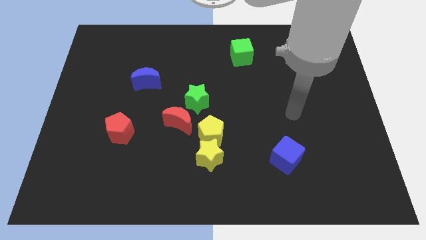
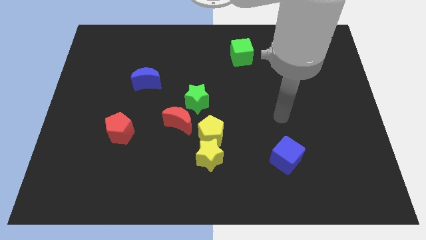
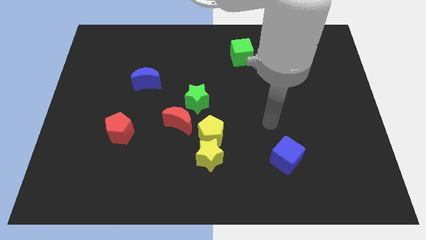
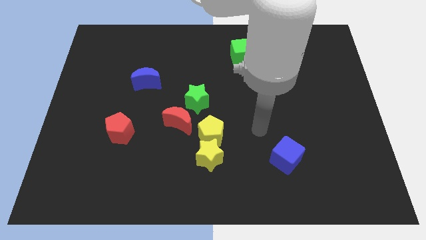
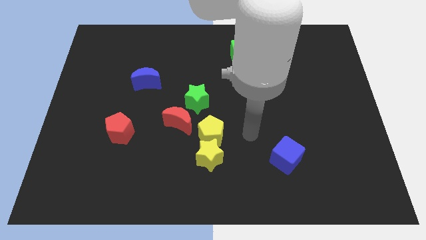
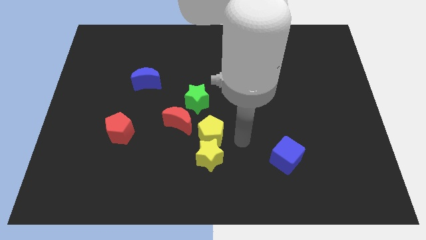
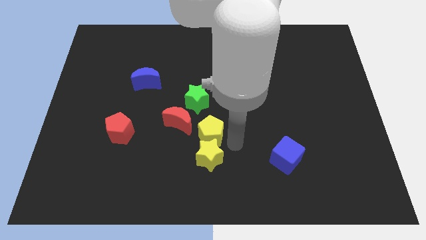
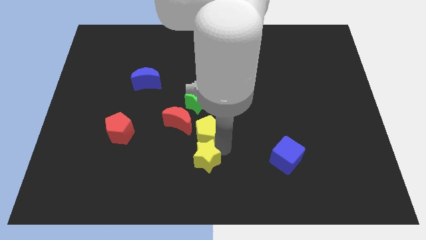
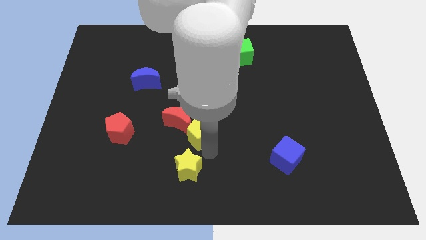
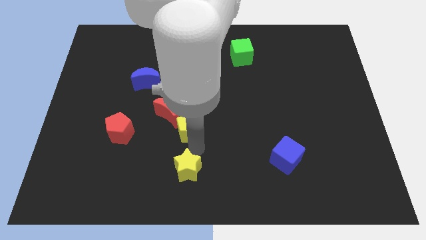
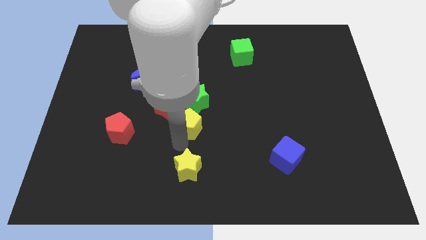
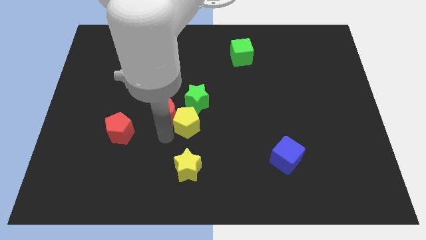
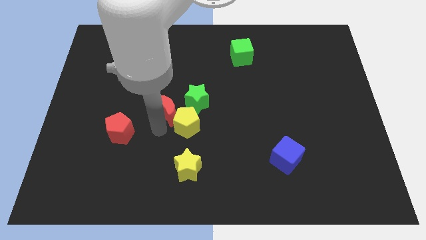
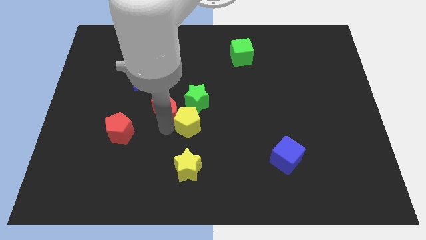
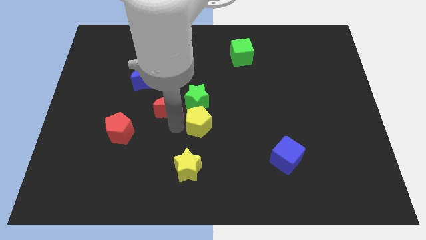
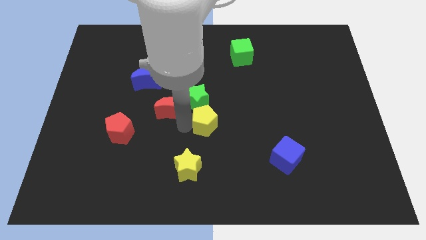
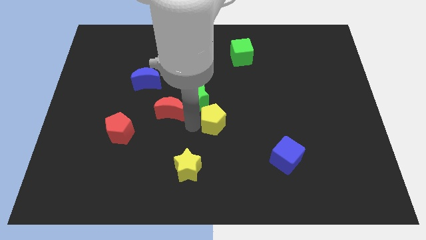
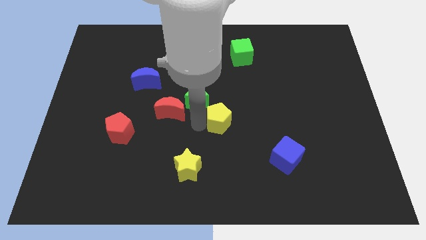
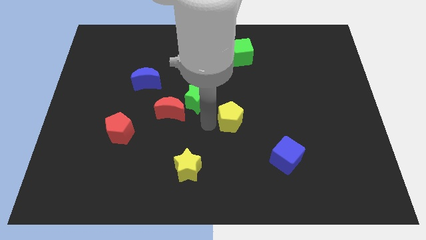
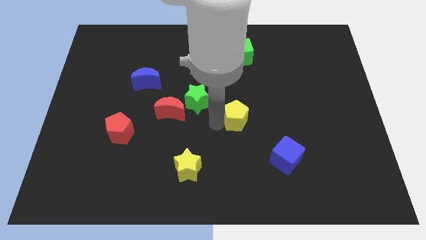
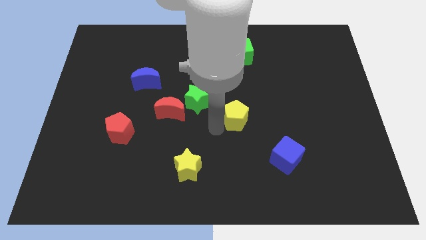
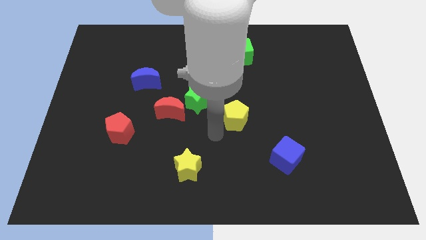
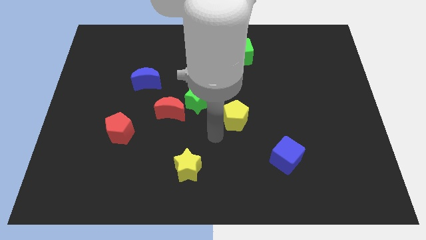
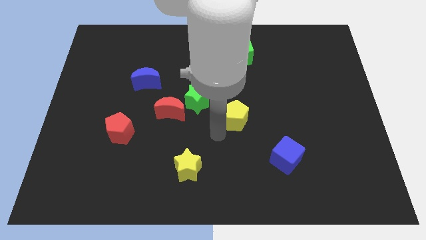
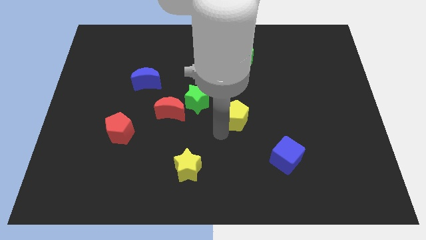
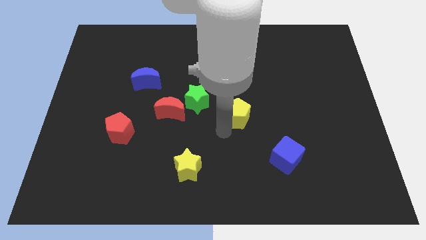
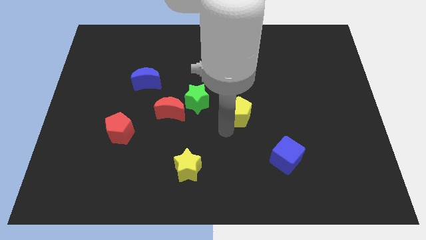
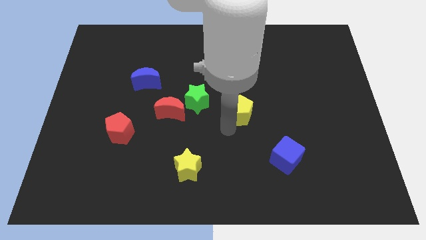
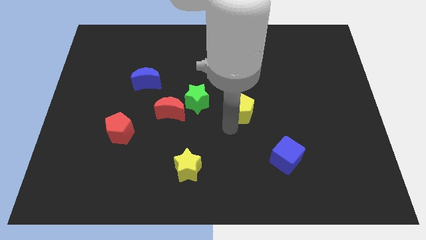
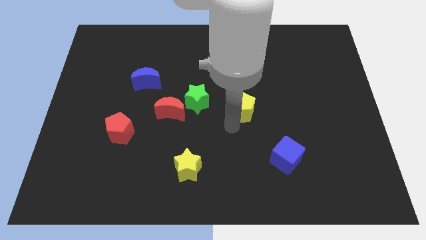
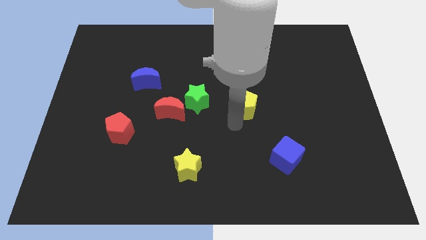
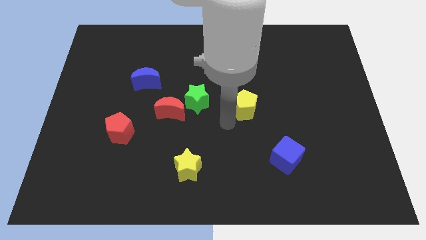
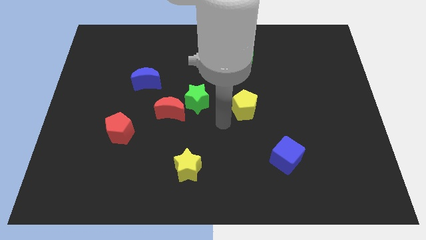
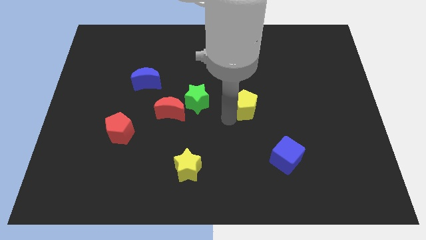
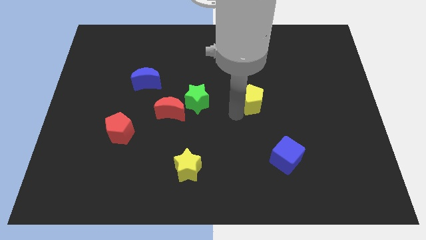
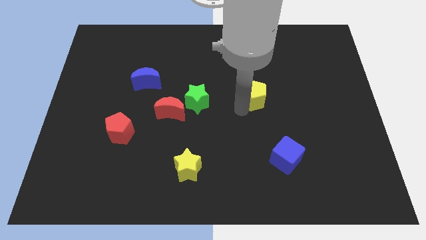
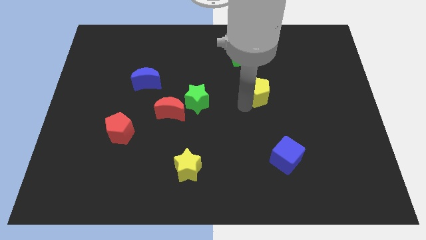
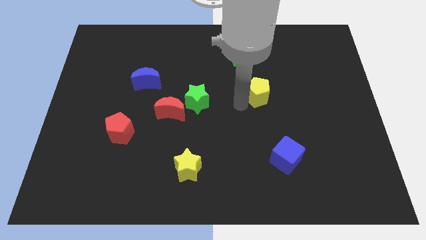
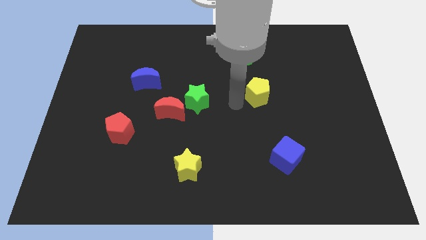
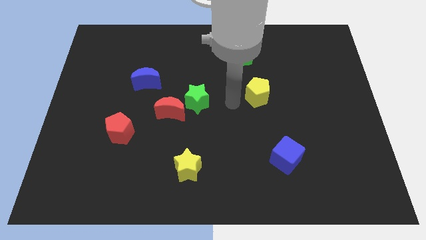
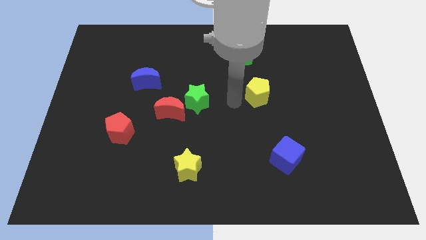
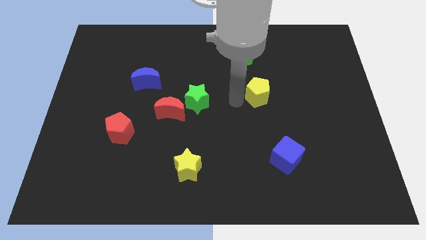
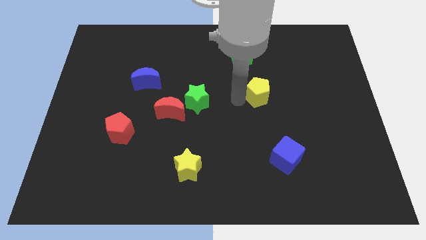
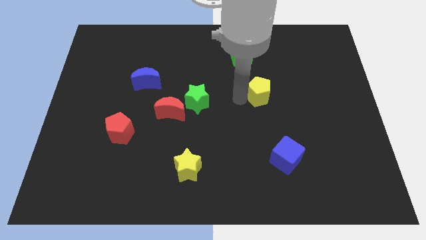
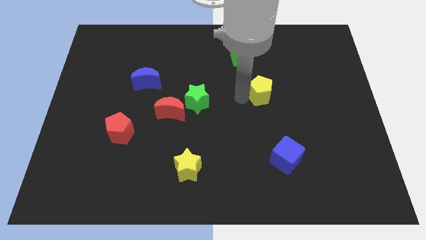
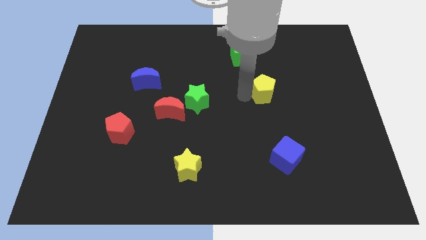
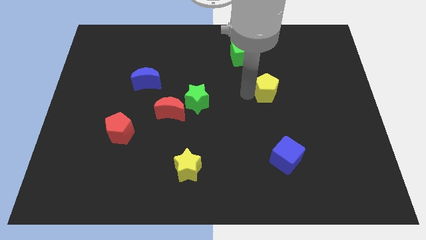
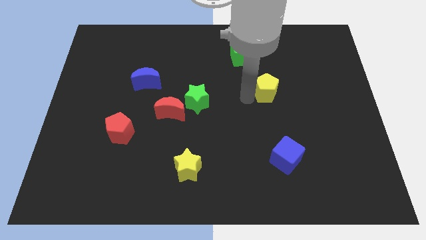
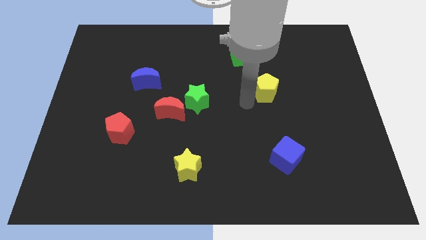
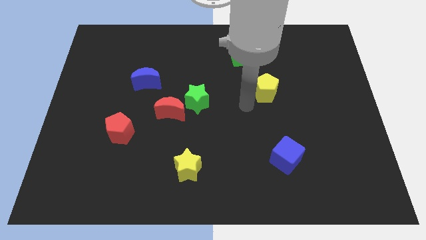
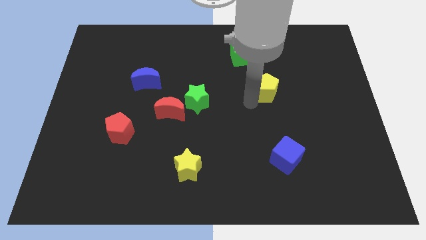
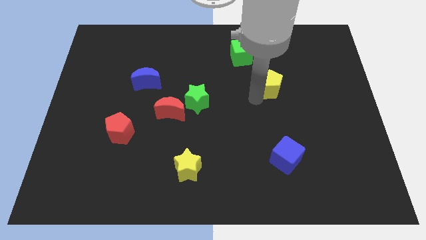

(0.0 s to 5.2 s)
push the yellow pentagon upwards and right diagonally

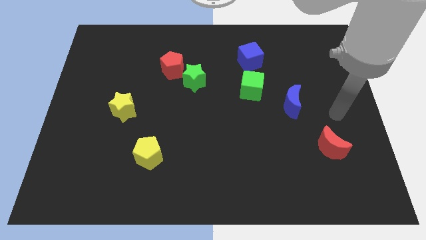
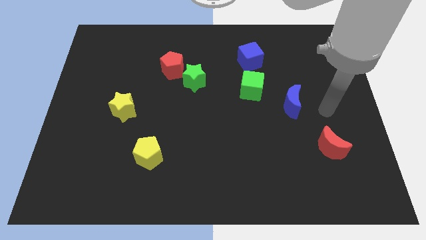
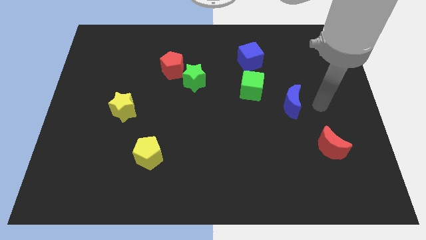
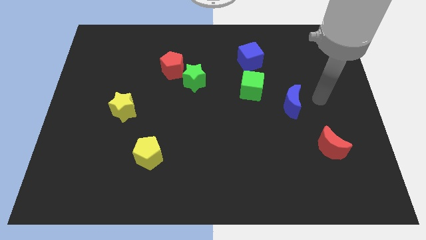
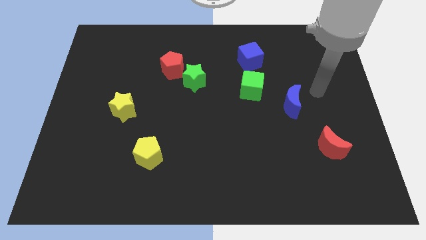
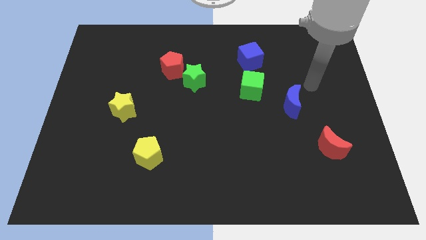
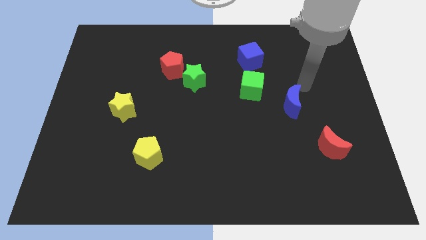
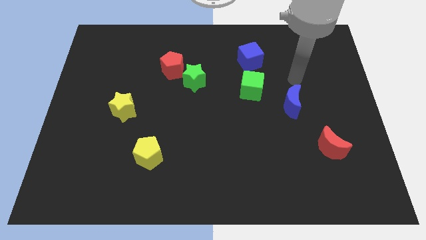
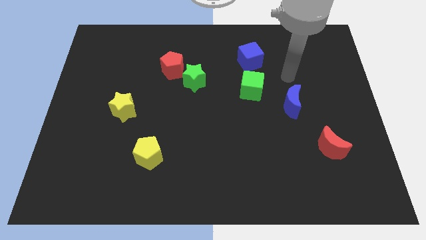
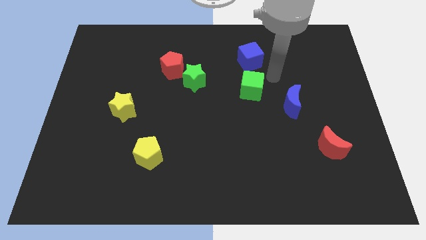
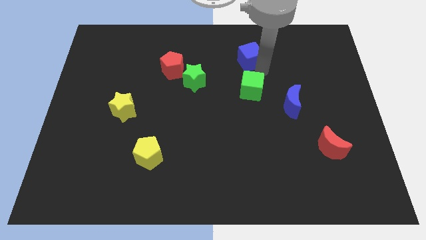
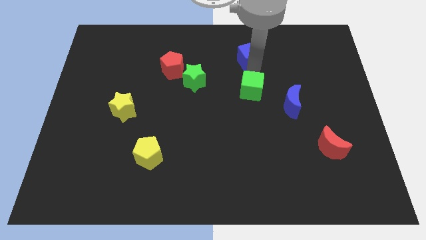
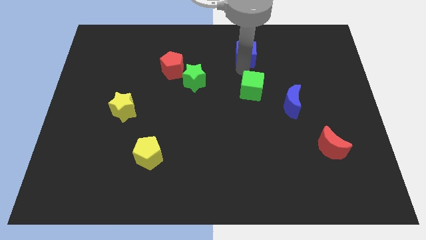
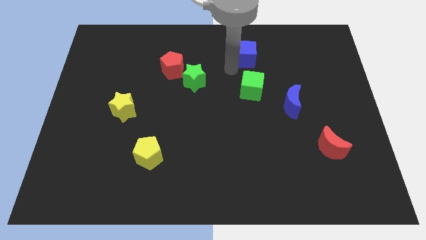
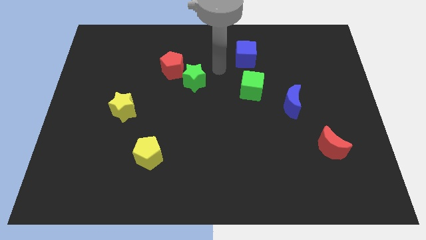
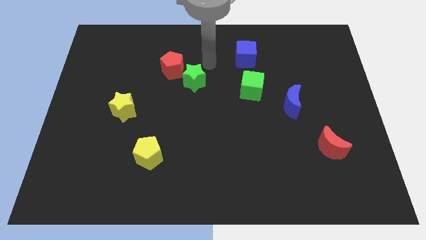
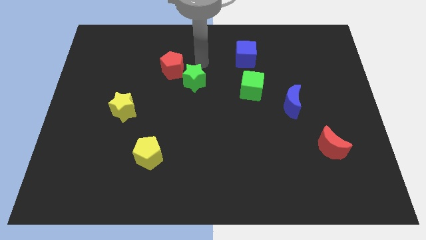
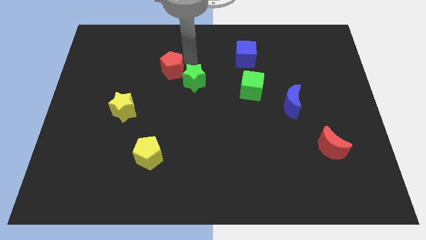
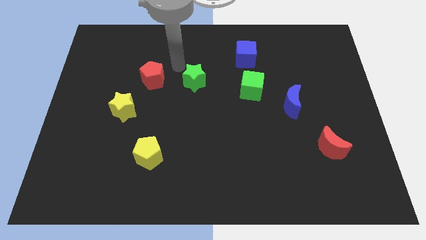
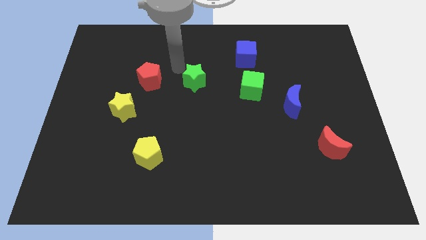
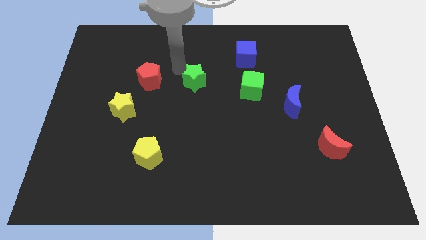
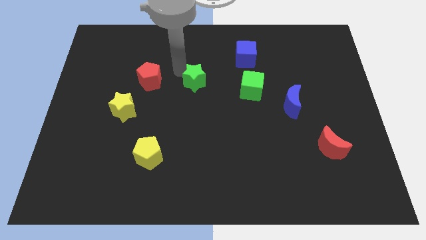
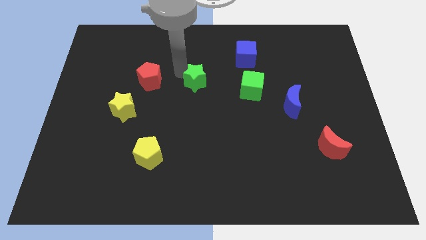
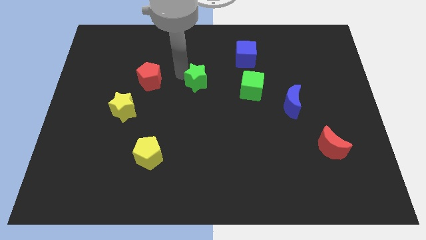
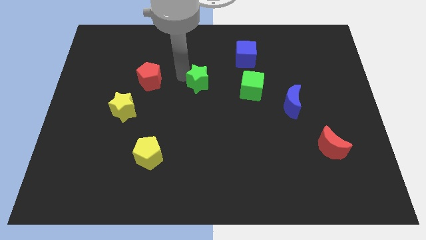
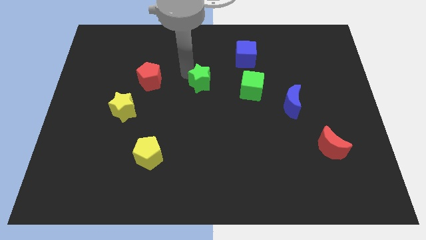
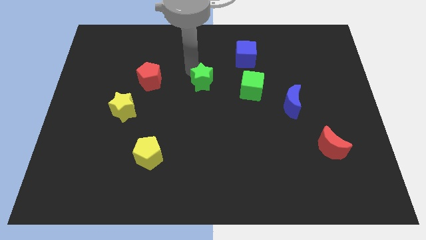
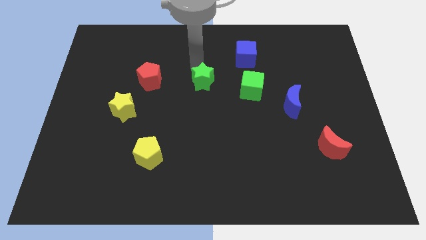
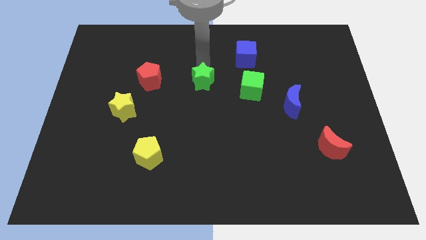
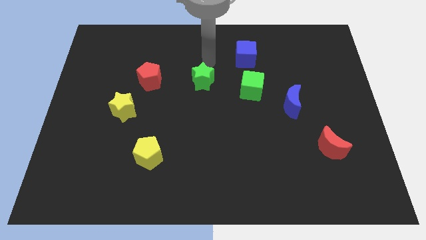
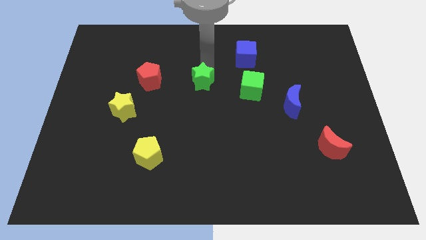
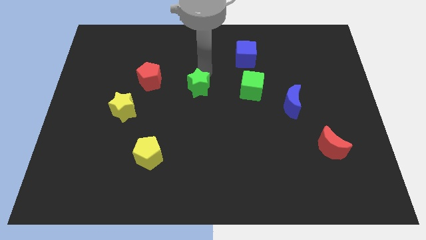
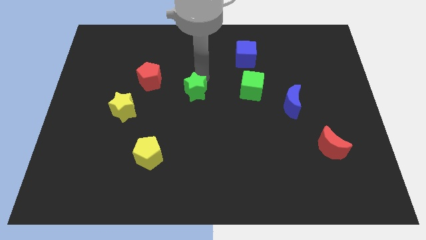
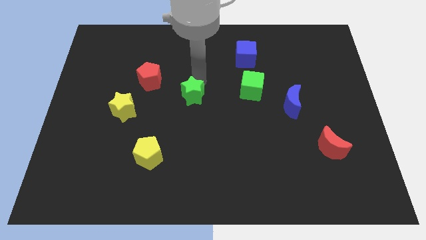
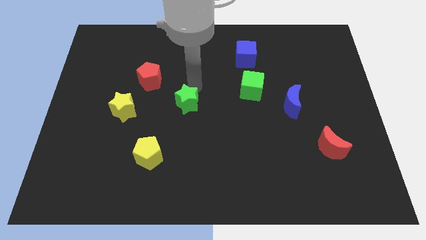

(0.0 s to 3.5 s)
push the green star down somewhat
